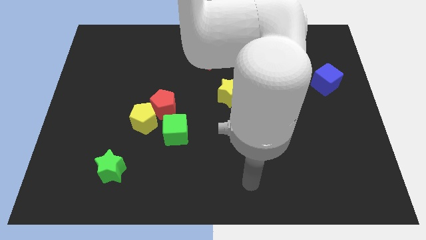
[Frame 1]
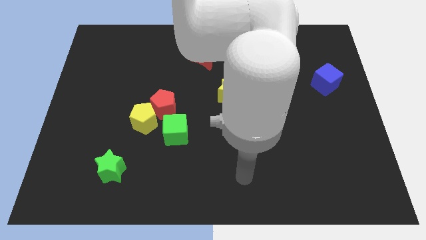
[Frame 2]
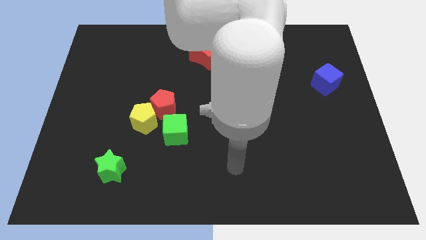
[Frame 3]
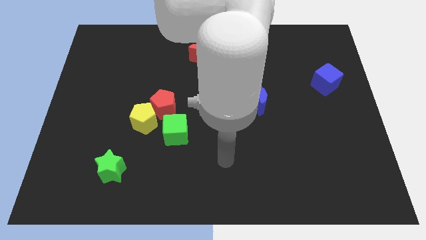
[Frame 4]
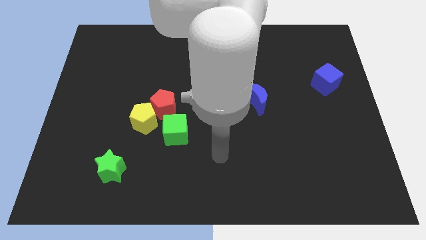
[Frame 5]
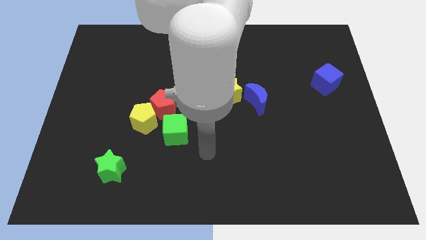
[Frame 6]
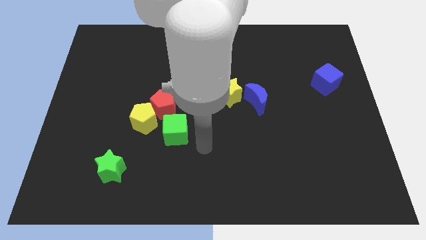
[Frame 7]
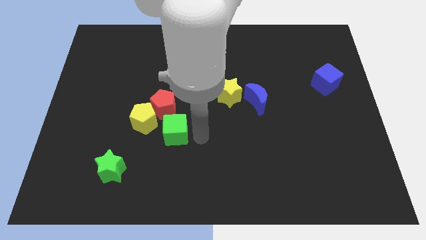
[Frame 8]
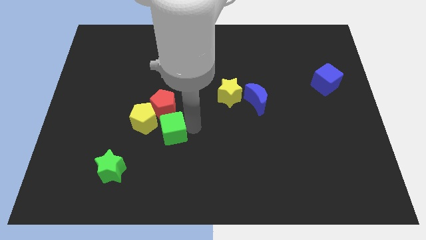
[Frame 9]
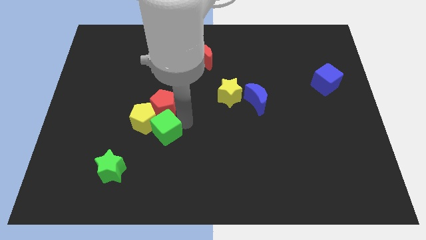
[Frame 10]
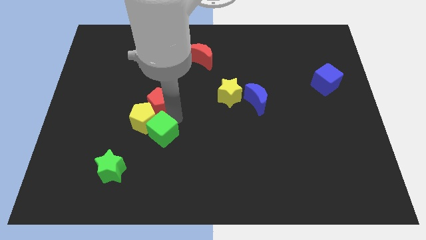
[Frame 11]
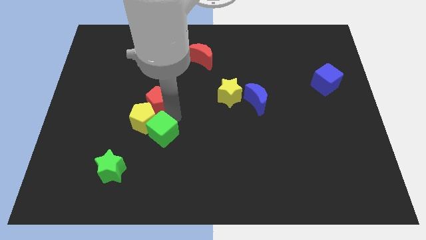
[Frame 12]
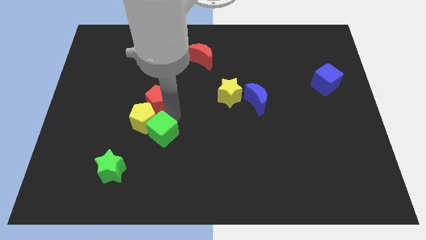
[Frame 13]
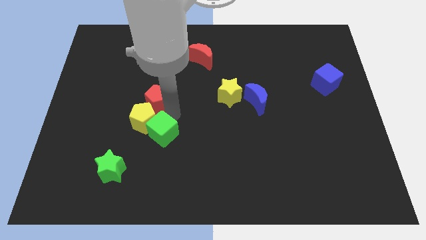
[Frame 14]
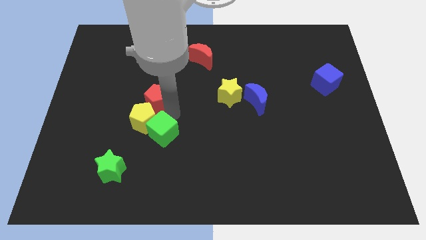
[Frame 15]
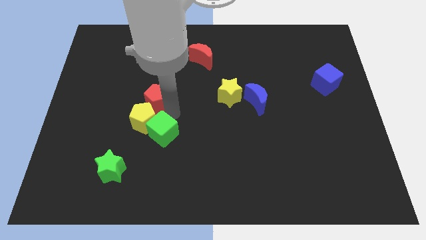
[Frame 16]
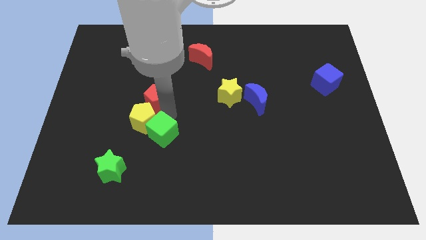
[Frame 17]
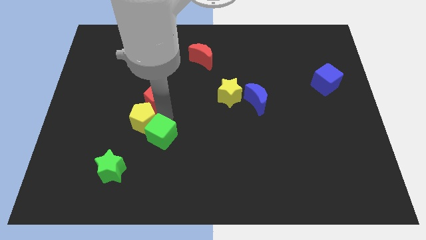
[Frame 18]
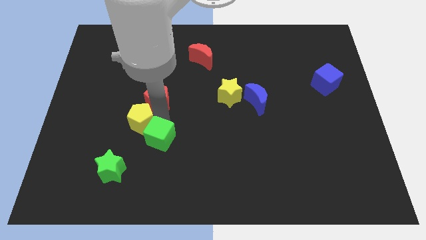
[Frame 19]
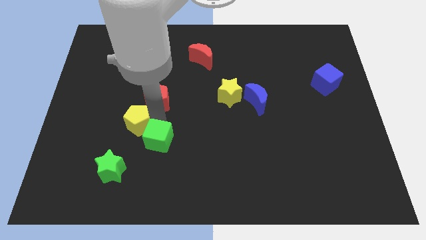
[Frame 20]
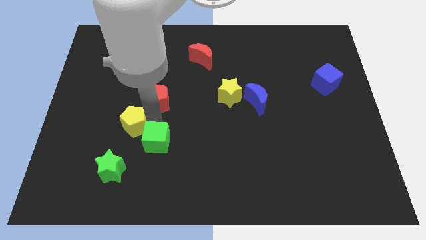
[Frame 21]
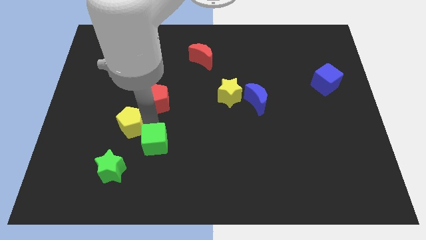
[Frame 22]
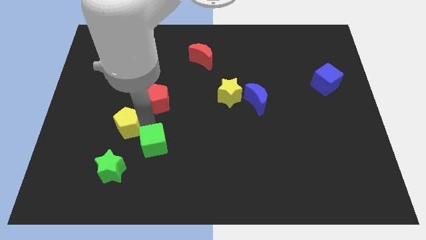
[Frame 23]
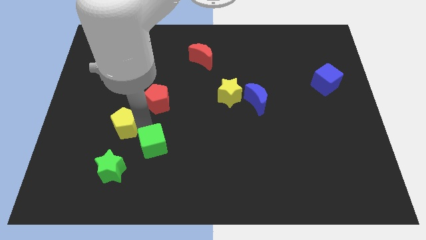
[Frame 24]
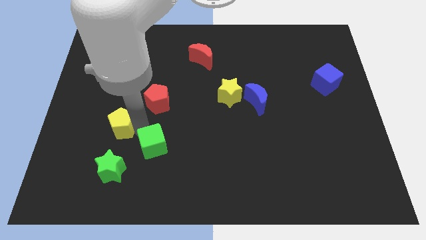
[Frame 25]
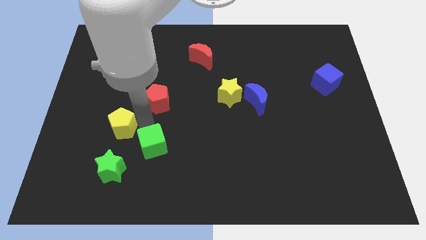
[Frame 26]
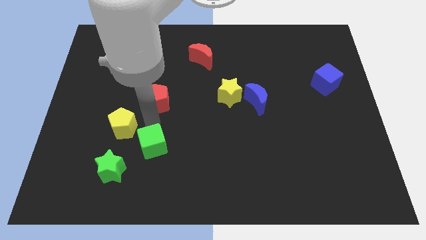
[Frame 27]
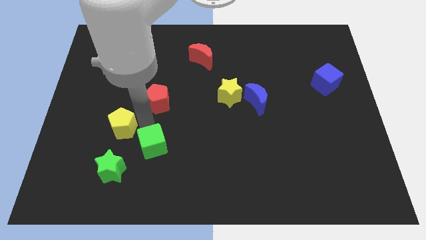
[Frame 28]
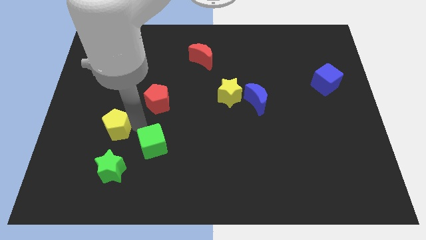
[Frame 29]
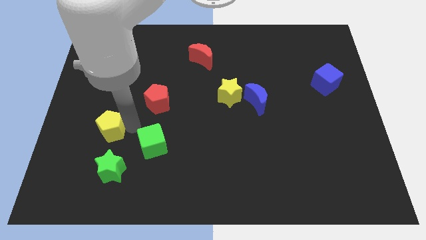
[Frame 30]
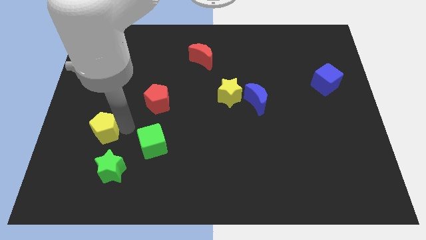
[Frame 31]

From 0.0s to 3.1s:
pull the yellow pentagon apart from the red pentagon and green cube

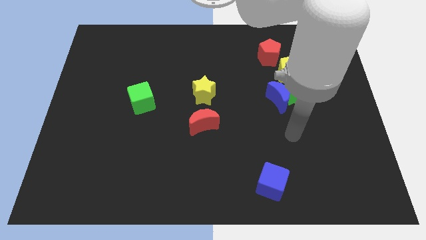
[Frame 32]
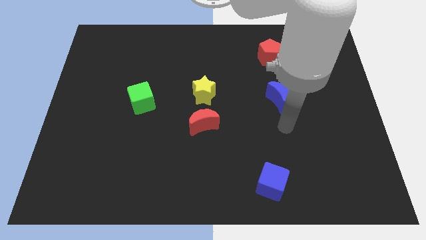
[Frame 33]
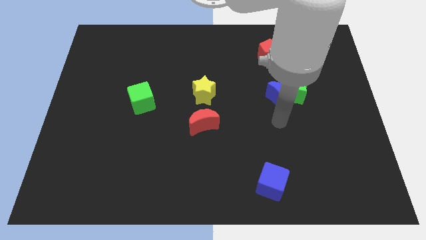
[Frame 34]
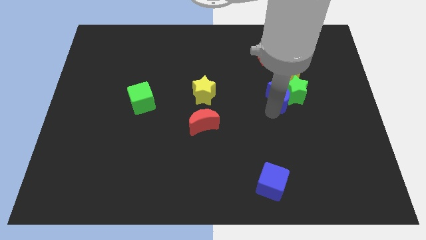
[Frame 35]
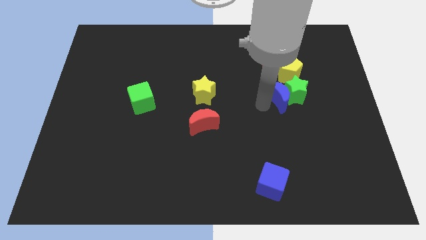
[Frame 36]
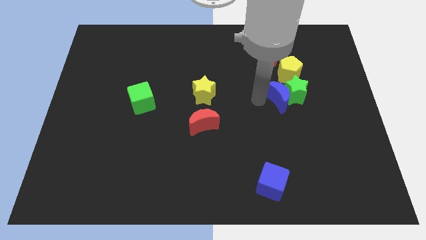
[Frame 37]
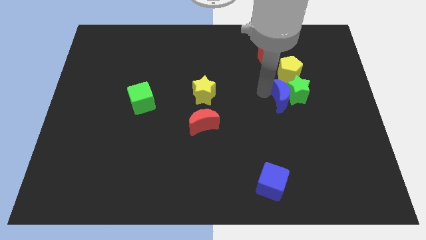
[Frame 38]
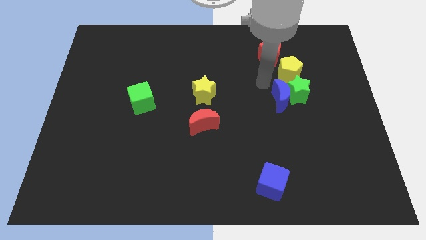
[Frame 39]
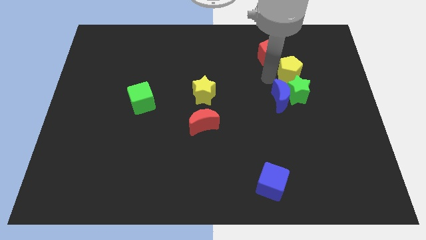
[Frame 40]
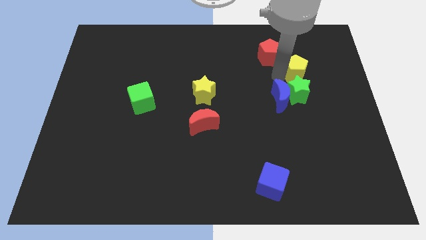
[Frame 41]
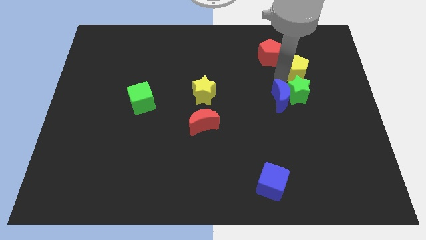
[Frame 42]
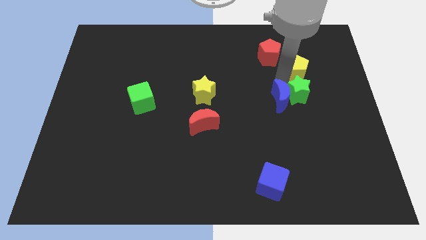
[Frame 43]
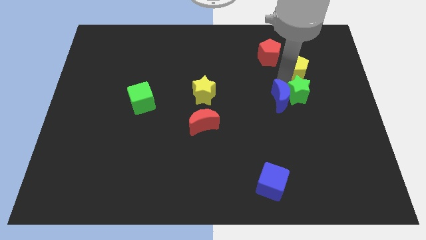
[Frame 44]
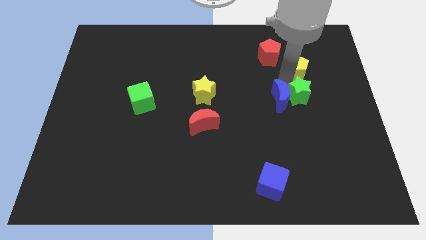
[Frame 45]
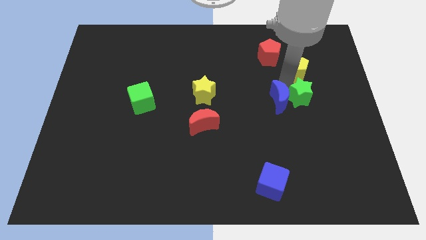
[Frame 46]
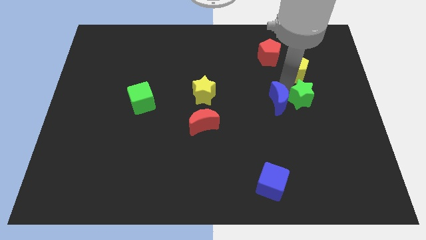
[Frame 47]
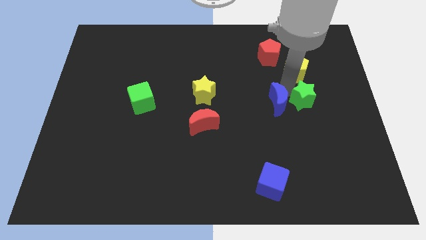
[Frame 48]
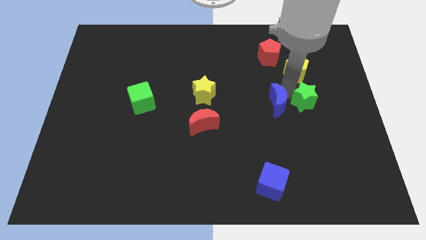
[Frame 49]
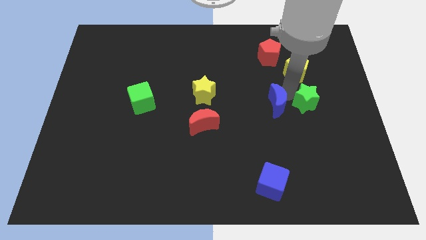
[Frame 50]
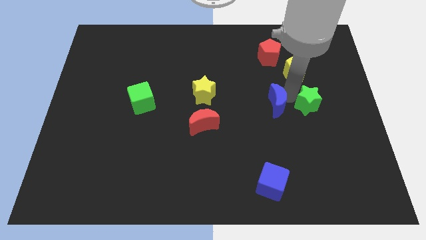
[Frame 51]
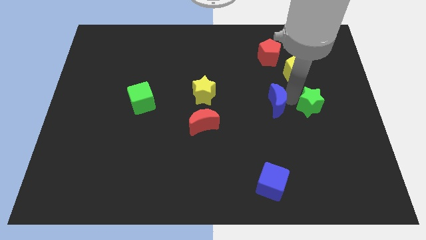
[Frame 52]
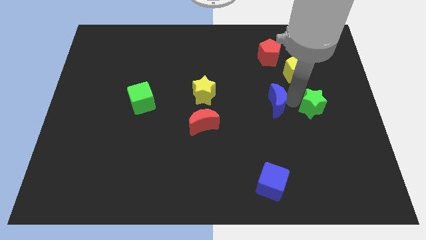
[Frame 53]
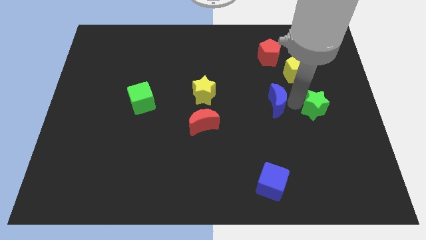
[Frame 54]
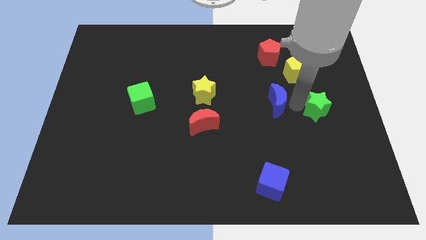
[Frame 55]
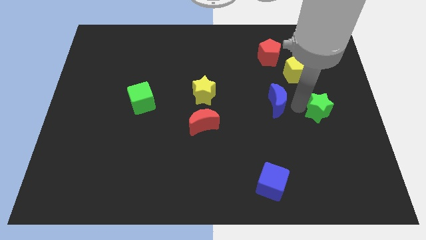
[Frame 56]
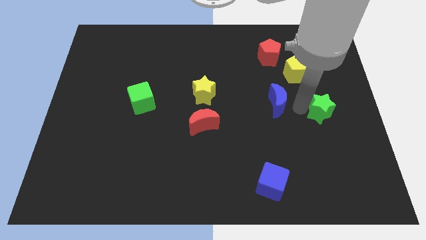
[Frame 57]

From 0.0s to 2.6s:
pull the green star apart from the blue moon and yellow pentagon

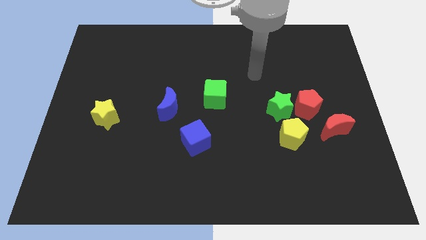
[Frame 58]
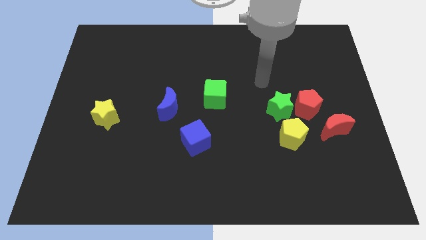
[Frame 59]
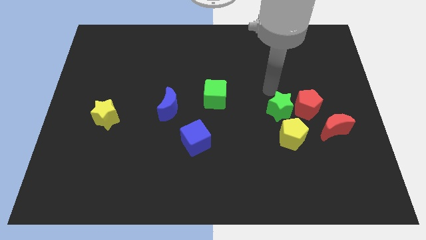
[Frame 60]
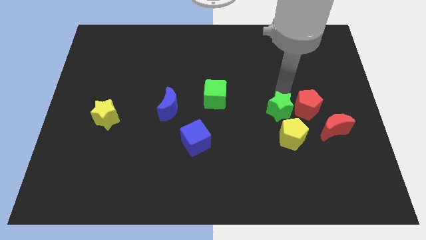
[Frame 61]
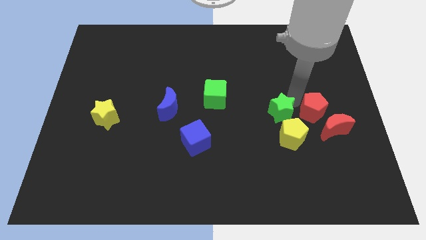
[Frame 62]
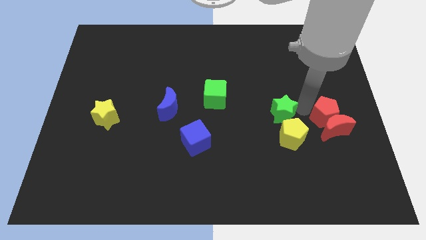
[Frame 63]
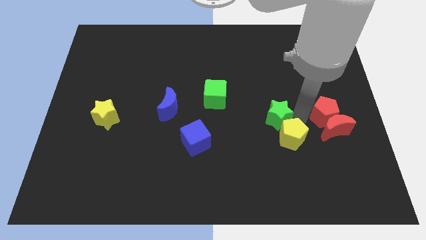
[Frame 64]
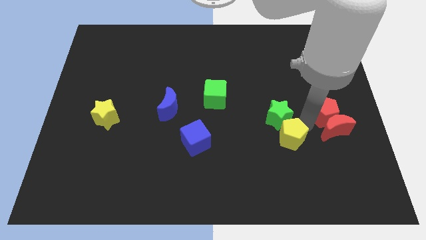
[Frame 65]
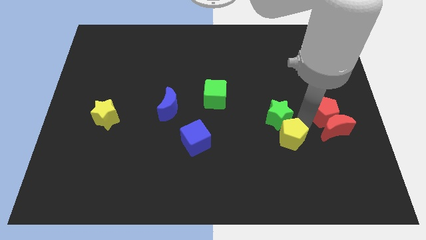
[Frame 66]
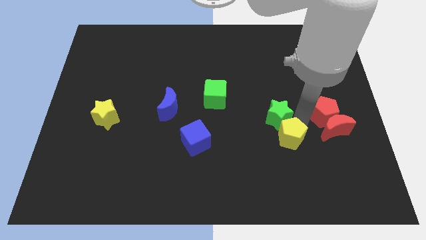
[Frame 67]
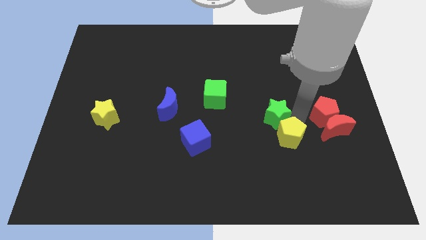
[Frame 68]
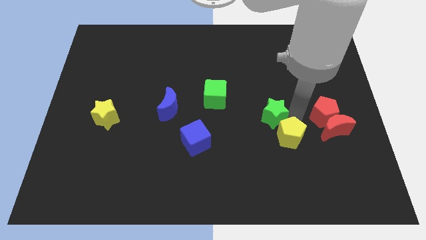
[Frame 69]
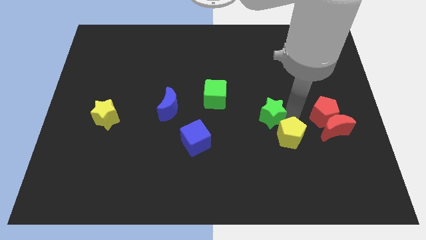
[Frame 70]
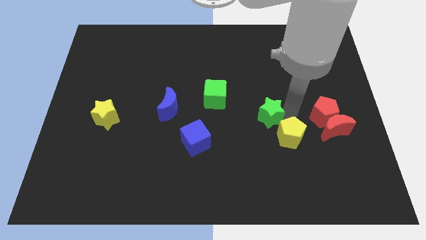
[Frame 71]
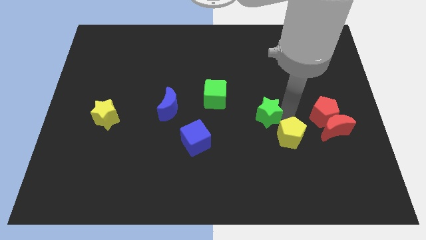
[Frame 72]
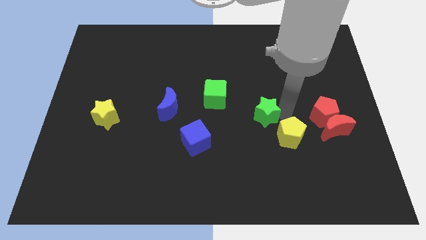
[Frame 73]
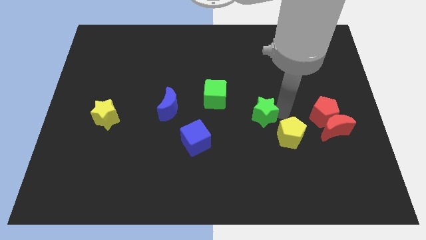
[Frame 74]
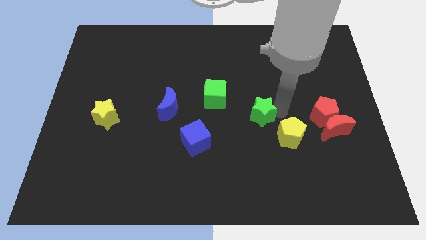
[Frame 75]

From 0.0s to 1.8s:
pull the green star apart from the red pentagon and yellow pentagon

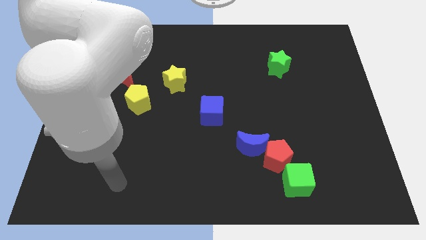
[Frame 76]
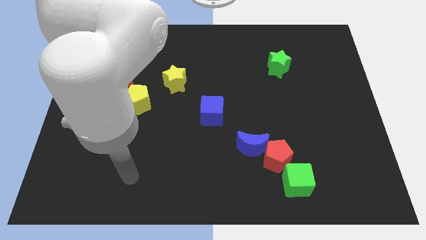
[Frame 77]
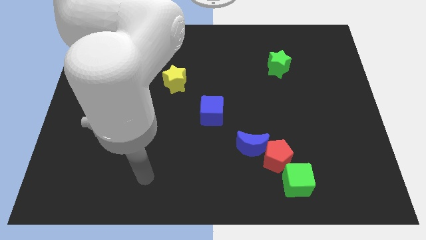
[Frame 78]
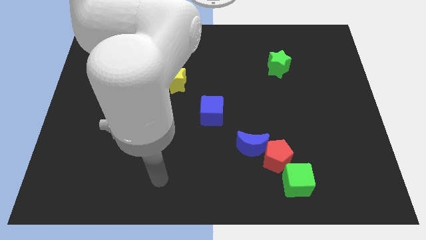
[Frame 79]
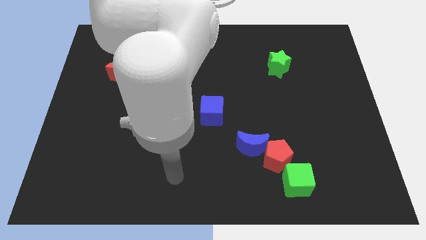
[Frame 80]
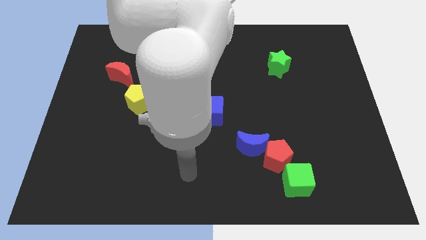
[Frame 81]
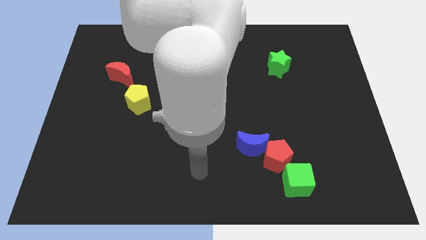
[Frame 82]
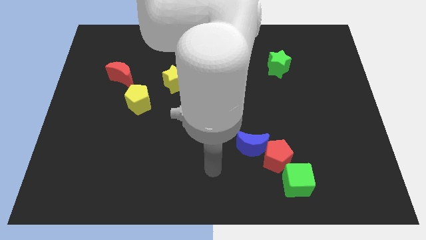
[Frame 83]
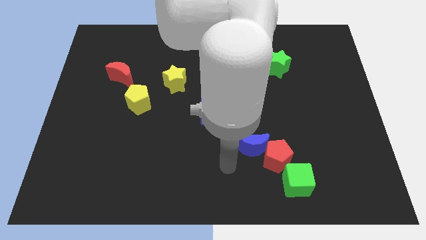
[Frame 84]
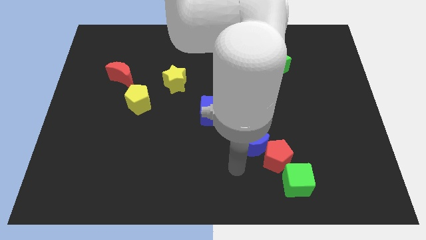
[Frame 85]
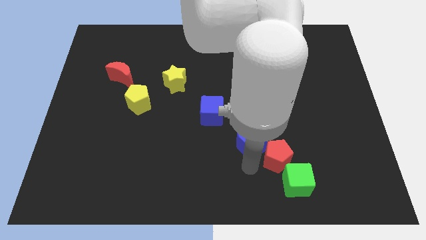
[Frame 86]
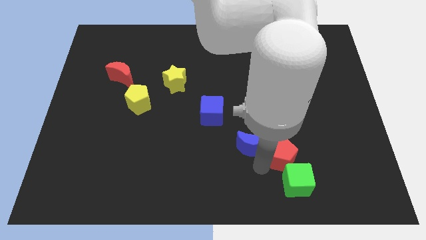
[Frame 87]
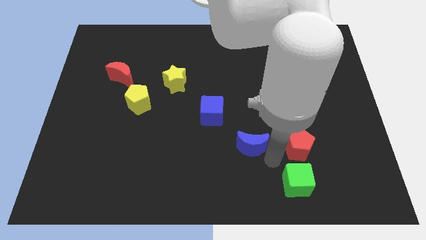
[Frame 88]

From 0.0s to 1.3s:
separate the blue moon from the red pentagon

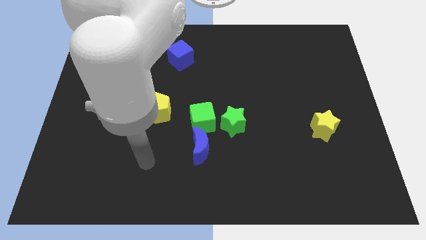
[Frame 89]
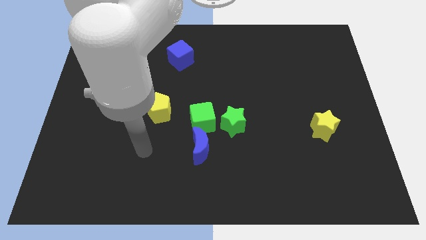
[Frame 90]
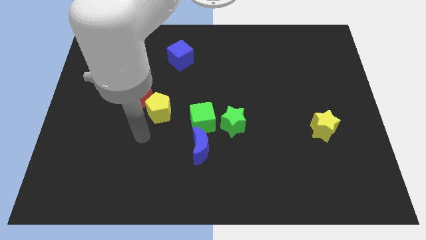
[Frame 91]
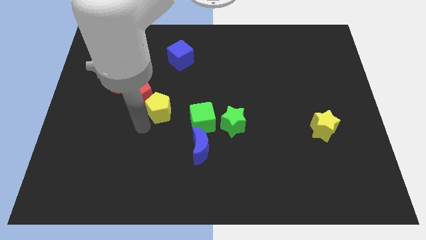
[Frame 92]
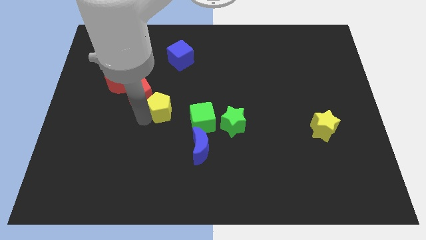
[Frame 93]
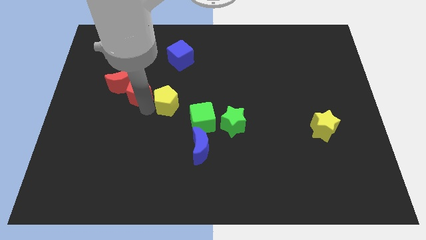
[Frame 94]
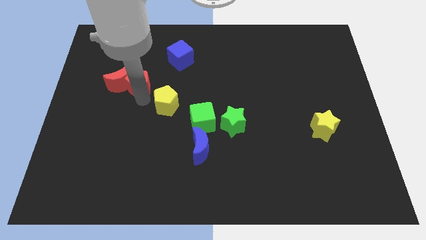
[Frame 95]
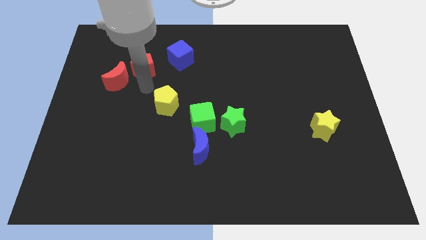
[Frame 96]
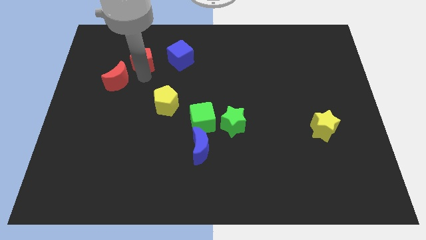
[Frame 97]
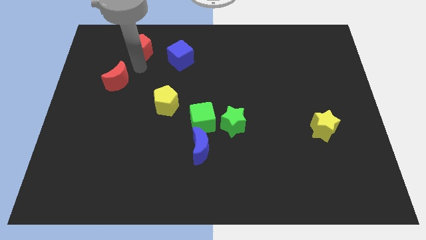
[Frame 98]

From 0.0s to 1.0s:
separate the red moon from the red pentagon
